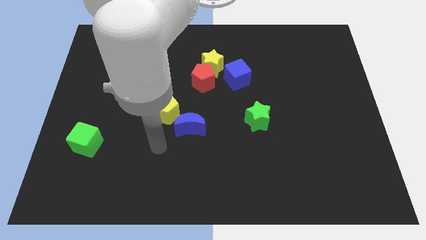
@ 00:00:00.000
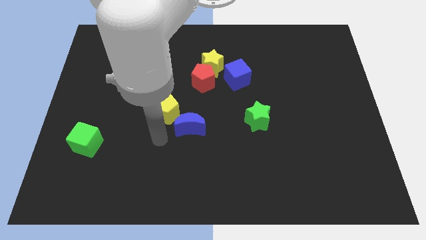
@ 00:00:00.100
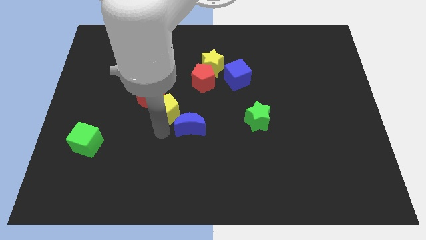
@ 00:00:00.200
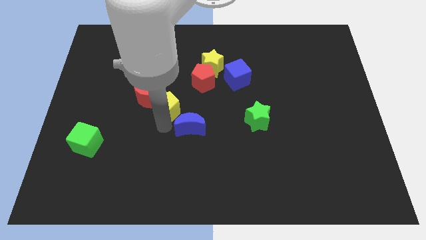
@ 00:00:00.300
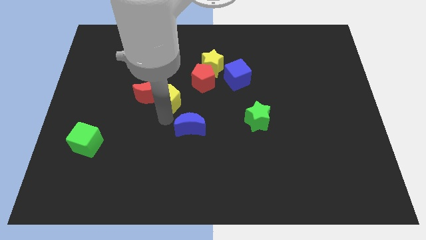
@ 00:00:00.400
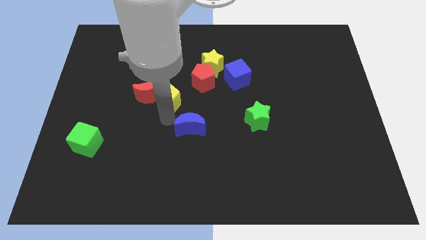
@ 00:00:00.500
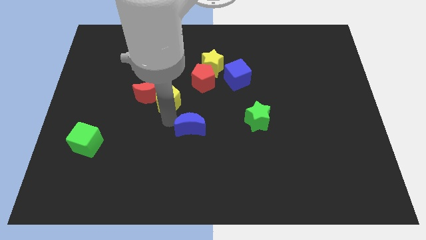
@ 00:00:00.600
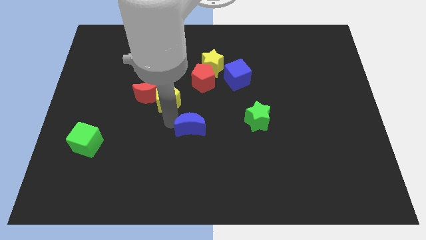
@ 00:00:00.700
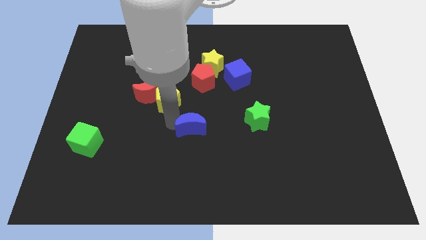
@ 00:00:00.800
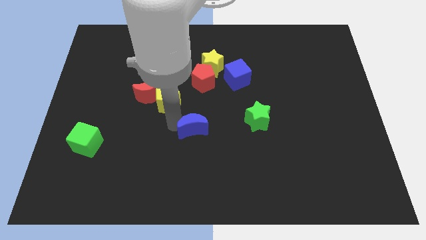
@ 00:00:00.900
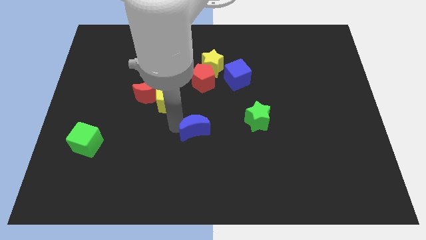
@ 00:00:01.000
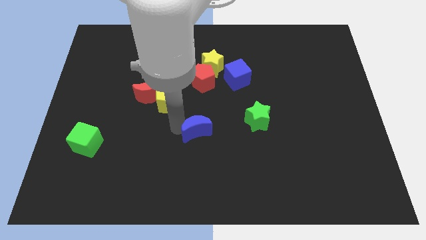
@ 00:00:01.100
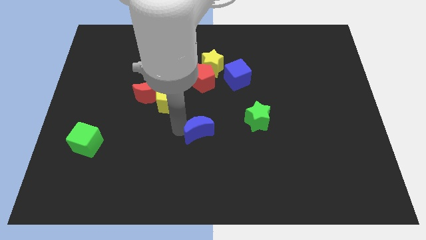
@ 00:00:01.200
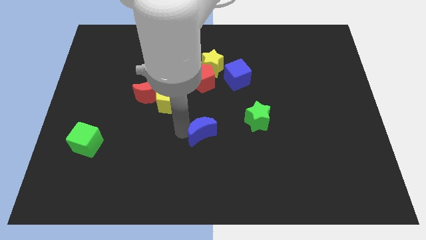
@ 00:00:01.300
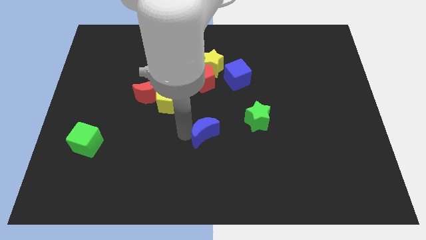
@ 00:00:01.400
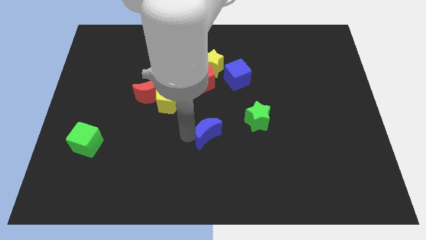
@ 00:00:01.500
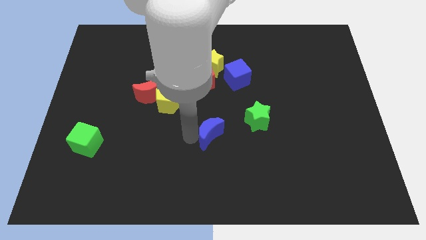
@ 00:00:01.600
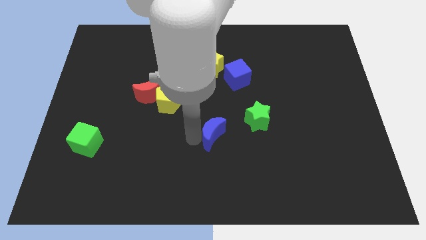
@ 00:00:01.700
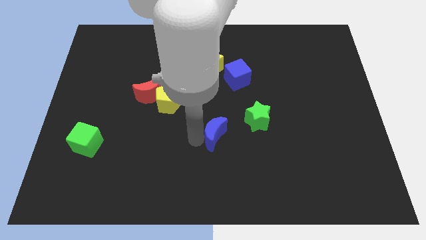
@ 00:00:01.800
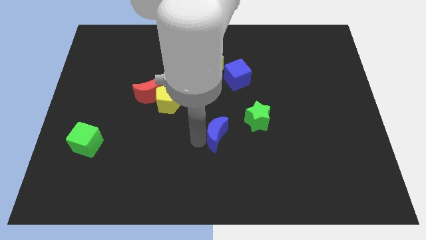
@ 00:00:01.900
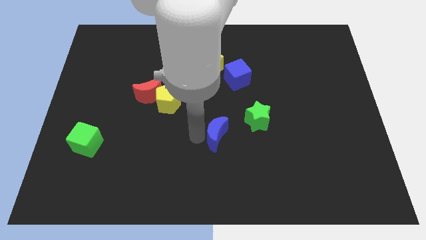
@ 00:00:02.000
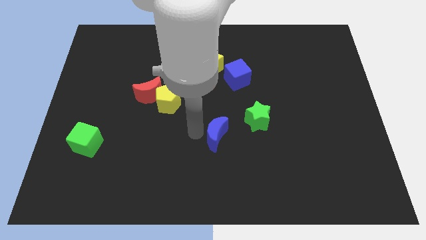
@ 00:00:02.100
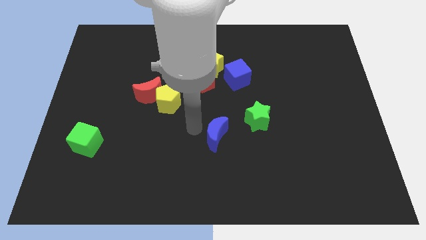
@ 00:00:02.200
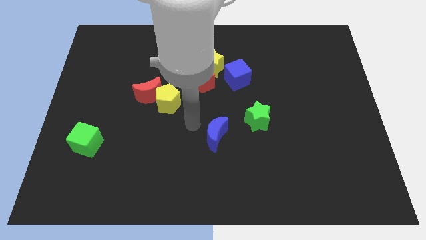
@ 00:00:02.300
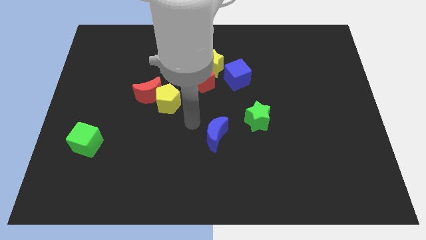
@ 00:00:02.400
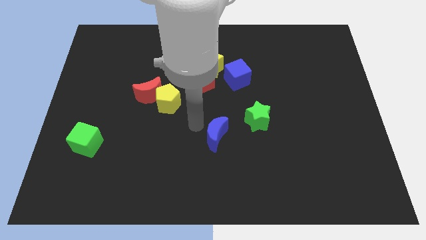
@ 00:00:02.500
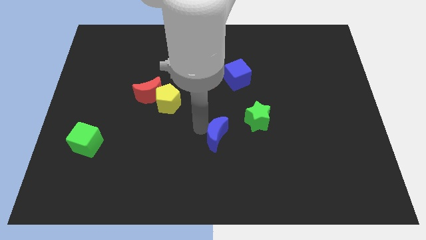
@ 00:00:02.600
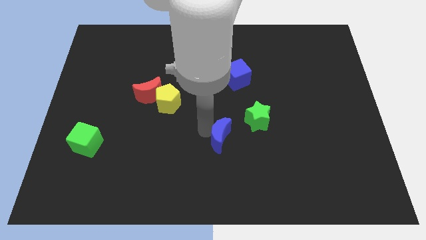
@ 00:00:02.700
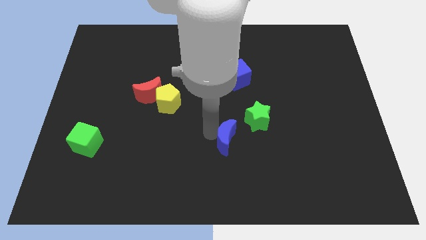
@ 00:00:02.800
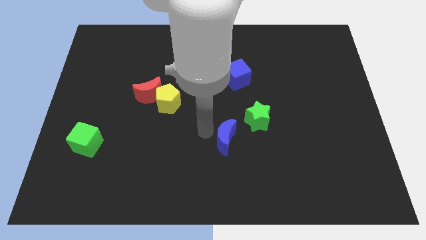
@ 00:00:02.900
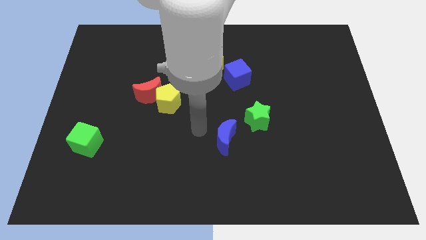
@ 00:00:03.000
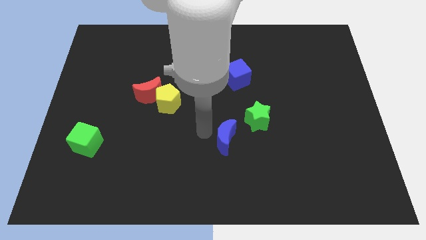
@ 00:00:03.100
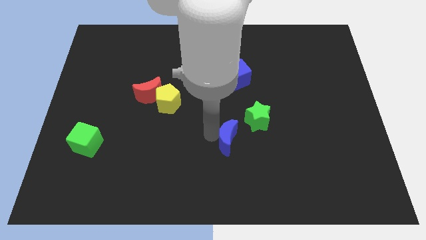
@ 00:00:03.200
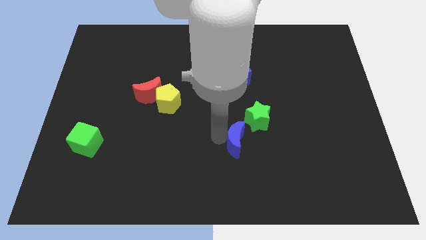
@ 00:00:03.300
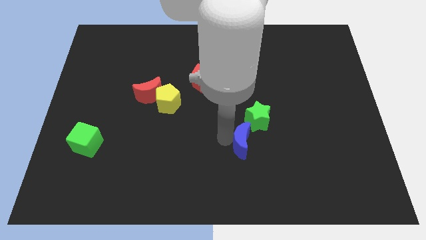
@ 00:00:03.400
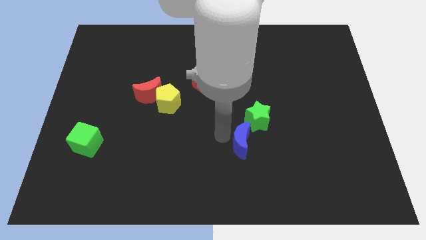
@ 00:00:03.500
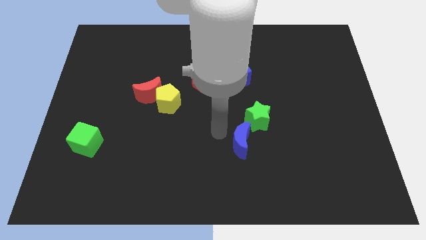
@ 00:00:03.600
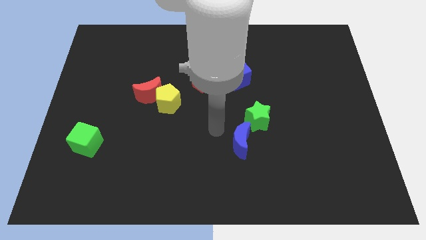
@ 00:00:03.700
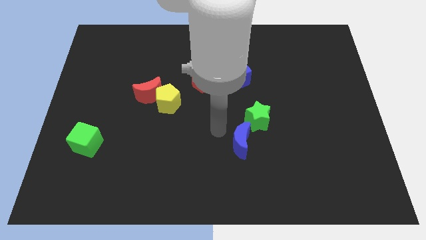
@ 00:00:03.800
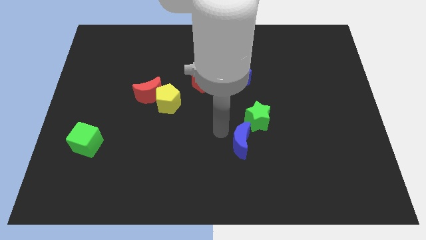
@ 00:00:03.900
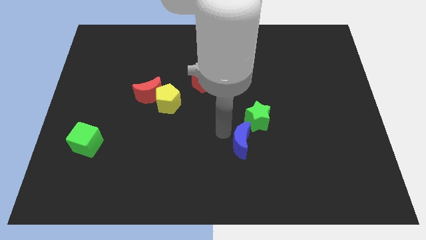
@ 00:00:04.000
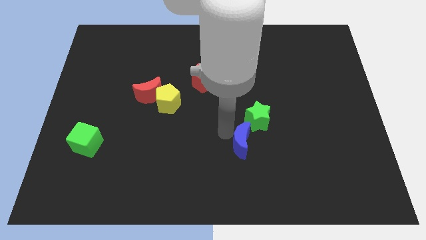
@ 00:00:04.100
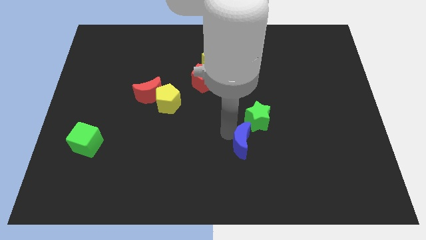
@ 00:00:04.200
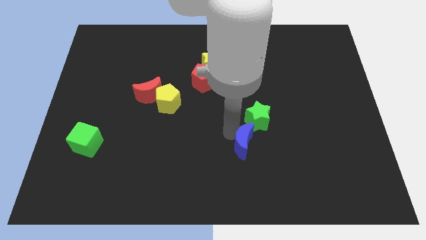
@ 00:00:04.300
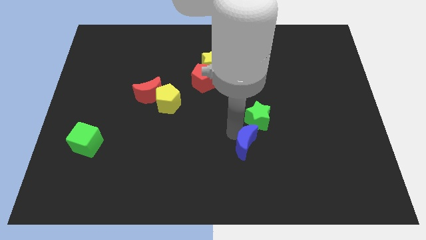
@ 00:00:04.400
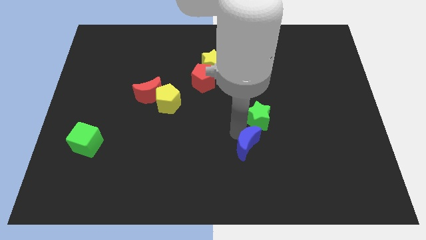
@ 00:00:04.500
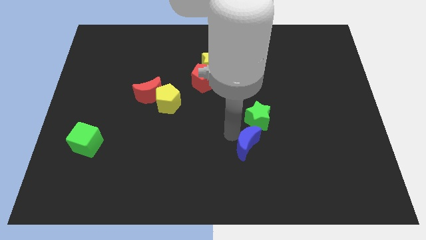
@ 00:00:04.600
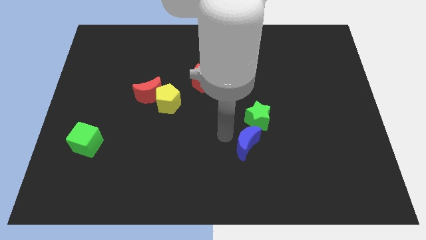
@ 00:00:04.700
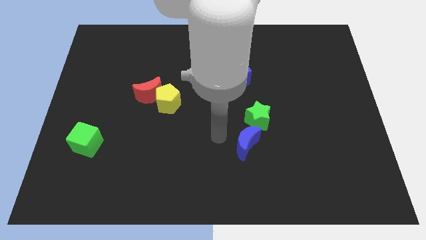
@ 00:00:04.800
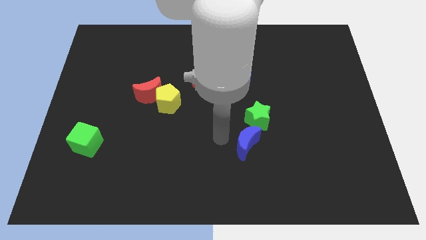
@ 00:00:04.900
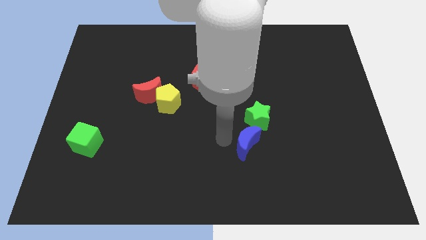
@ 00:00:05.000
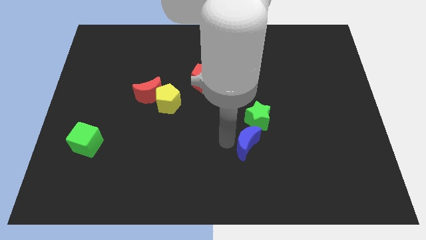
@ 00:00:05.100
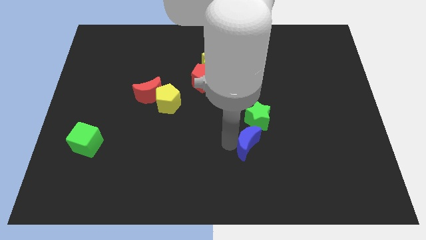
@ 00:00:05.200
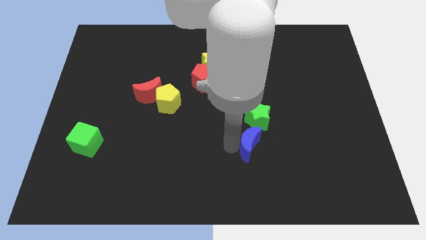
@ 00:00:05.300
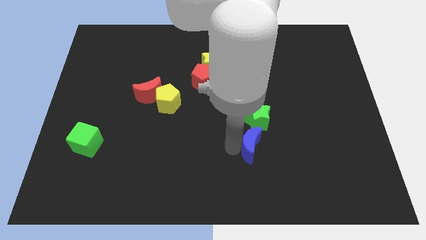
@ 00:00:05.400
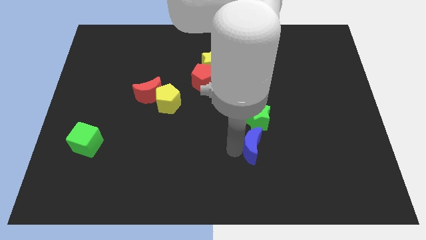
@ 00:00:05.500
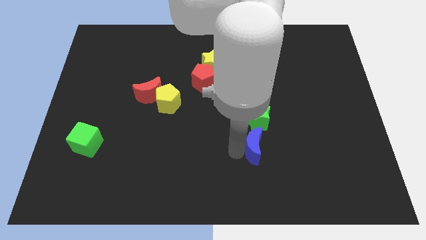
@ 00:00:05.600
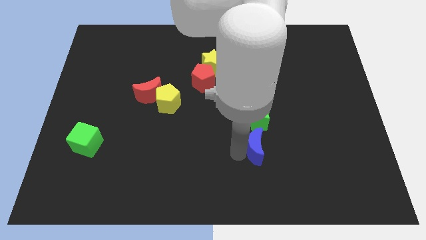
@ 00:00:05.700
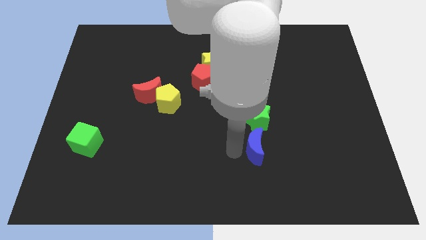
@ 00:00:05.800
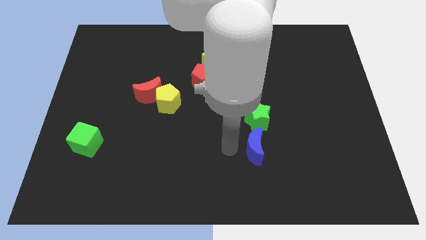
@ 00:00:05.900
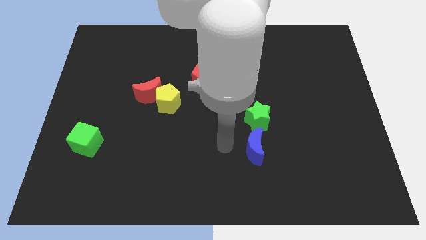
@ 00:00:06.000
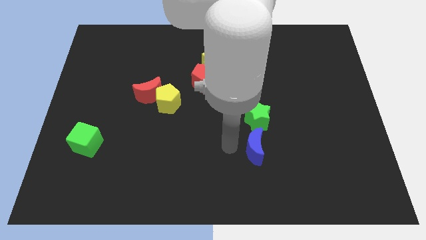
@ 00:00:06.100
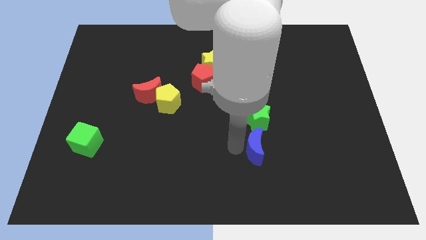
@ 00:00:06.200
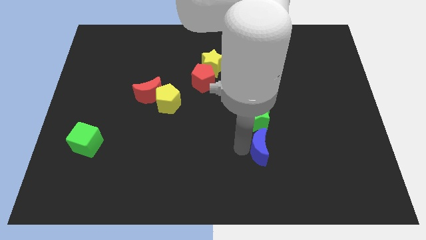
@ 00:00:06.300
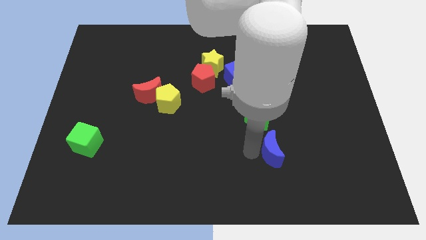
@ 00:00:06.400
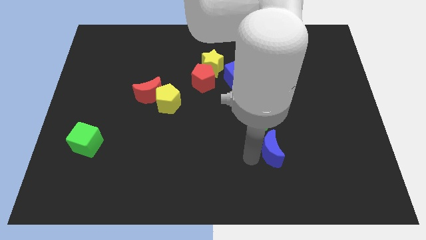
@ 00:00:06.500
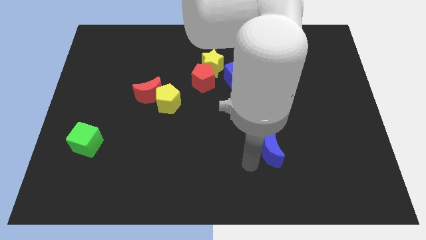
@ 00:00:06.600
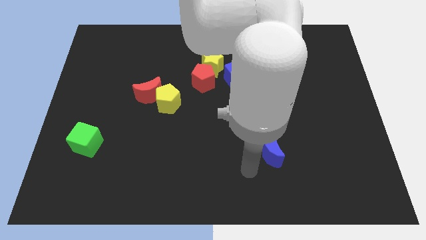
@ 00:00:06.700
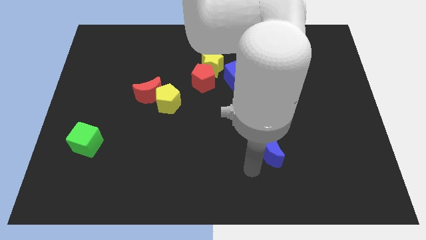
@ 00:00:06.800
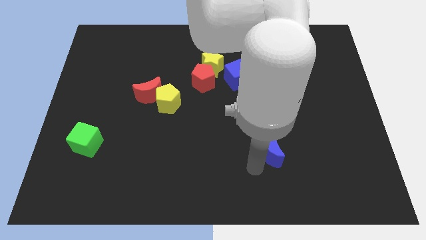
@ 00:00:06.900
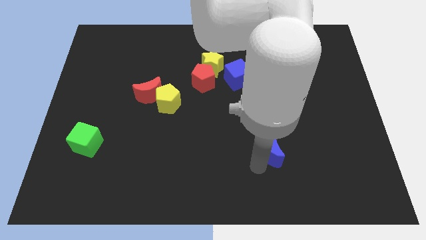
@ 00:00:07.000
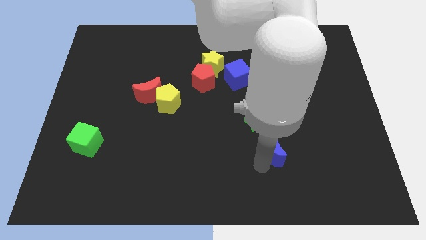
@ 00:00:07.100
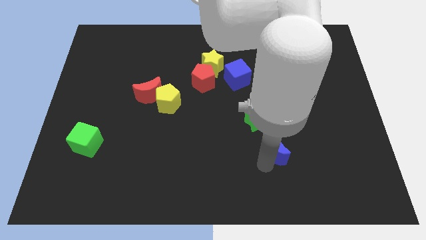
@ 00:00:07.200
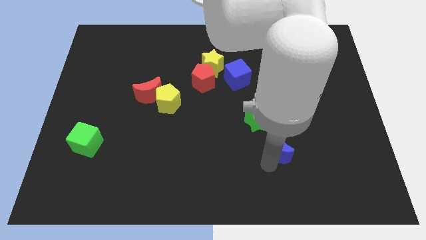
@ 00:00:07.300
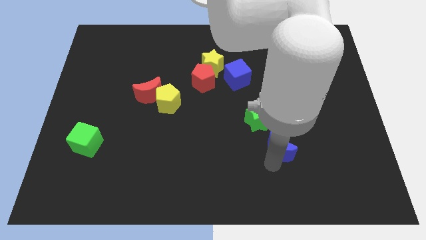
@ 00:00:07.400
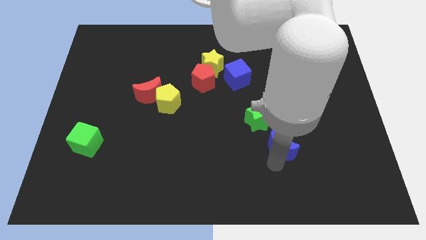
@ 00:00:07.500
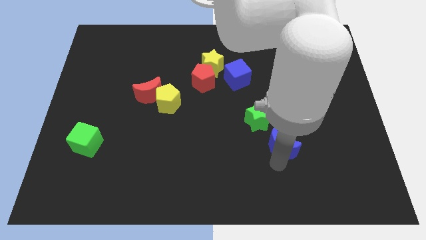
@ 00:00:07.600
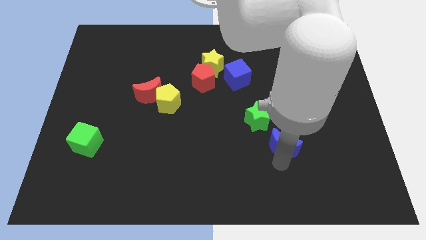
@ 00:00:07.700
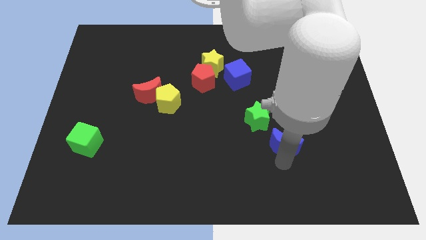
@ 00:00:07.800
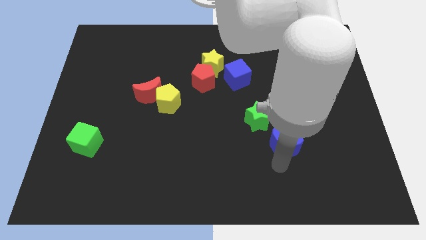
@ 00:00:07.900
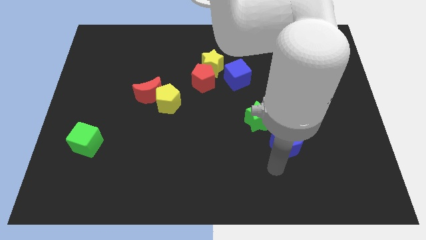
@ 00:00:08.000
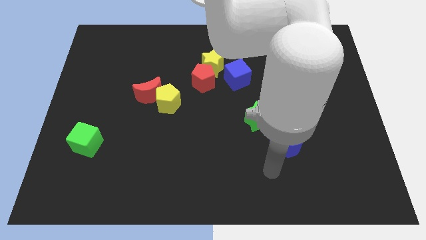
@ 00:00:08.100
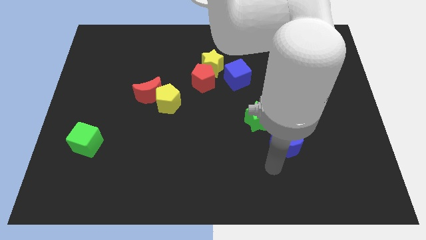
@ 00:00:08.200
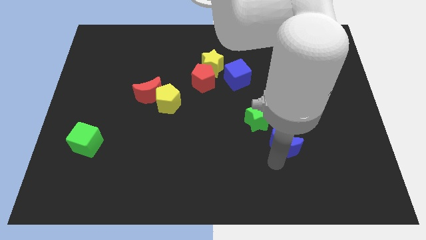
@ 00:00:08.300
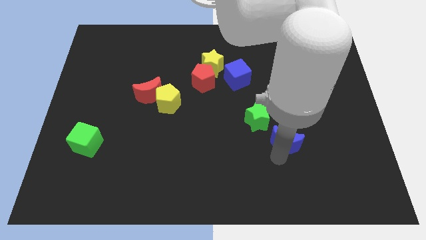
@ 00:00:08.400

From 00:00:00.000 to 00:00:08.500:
push the blue moon to the right
